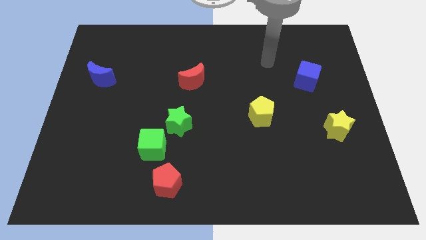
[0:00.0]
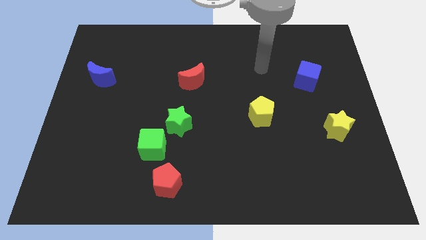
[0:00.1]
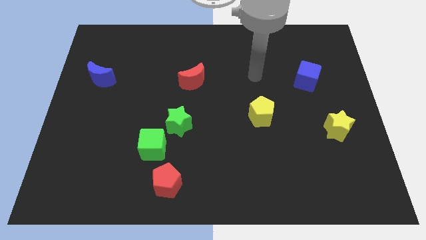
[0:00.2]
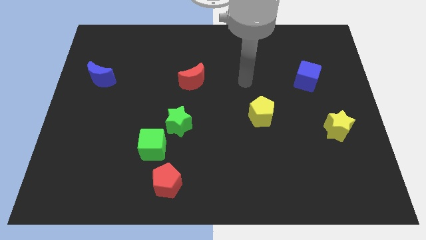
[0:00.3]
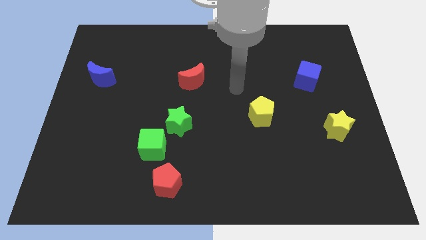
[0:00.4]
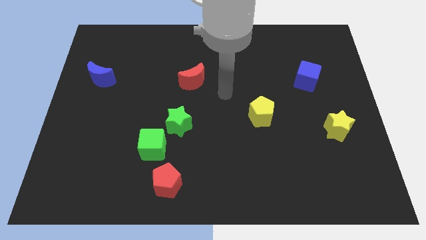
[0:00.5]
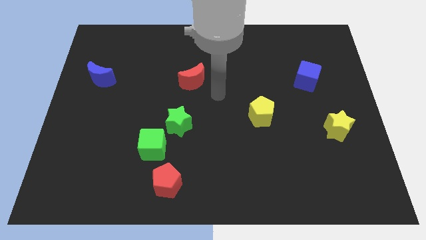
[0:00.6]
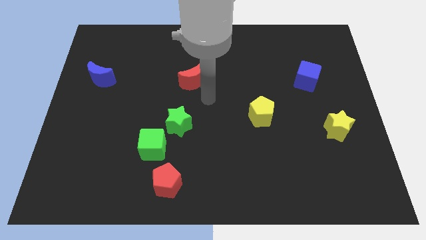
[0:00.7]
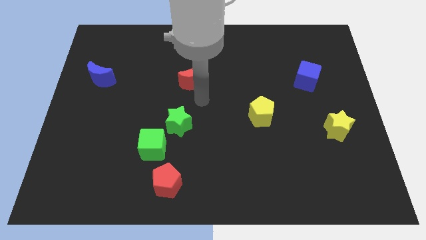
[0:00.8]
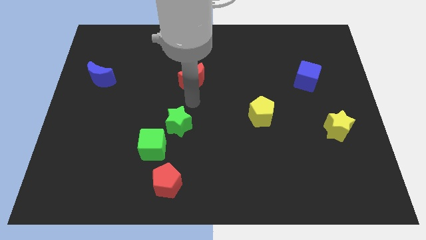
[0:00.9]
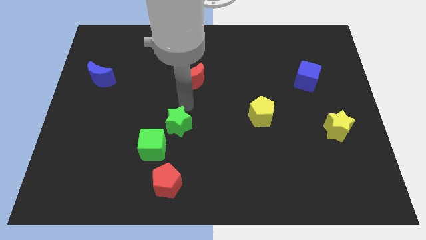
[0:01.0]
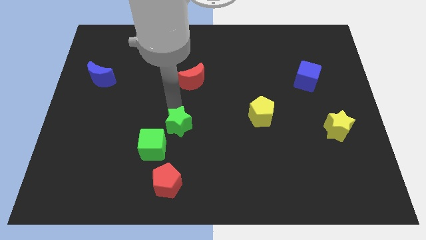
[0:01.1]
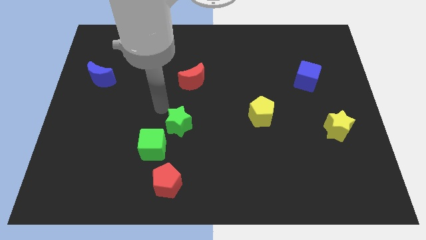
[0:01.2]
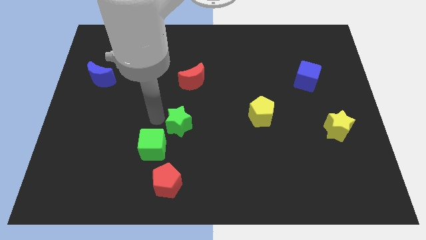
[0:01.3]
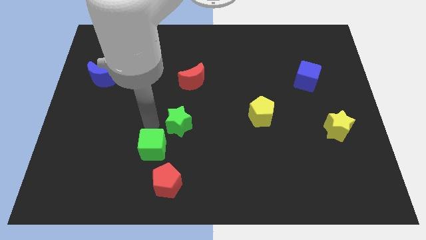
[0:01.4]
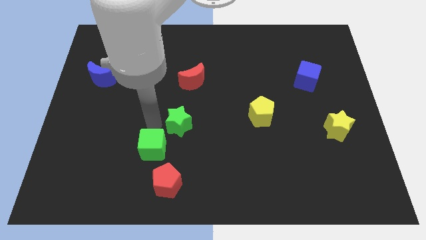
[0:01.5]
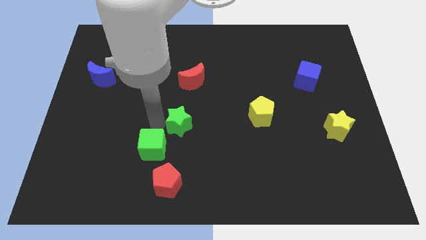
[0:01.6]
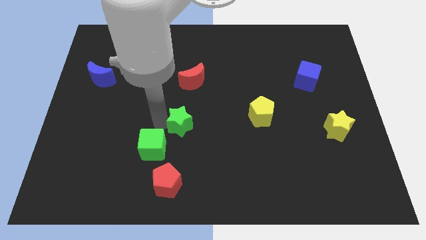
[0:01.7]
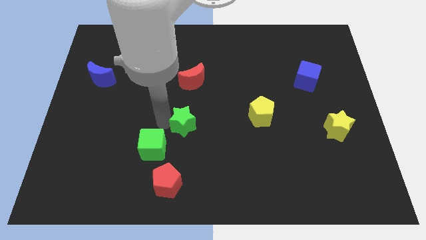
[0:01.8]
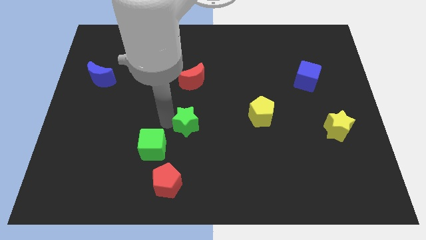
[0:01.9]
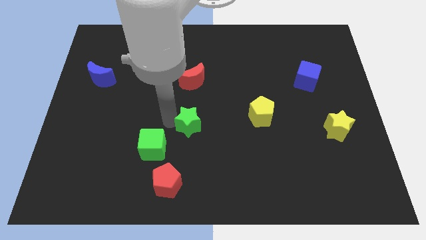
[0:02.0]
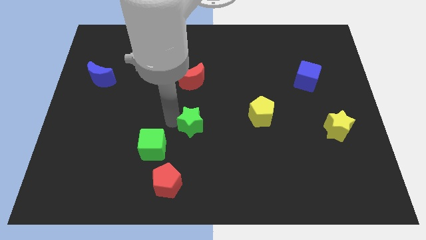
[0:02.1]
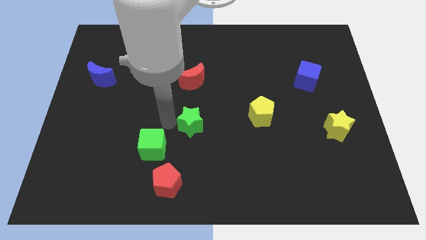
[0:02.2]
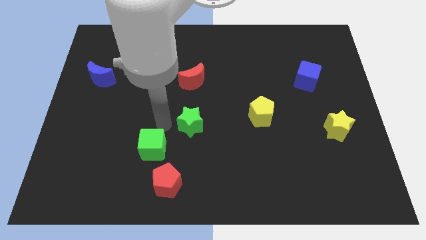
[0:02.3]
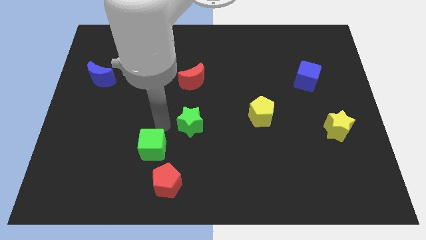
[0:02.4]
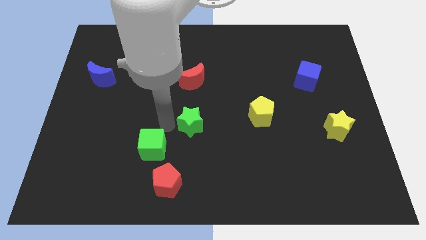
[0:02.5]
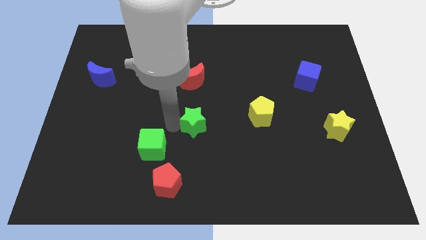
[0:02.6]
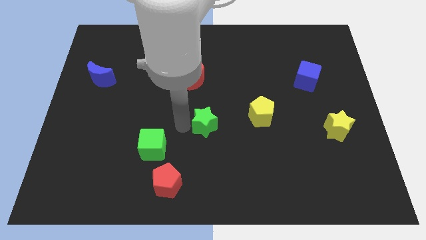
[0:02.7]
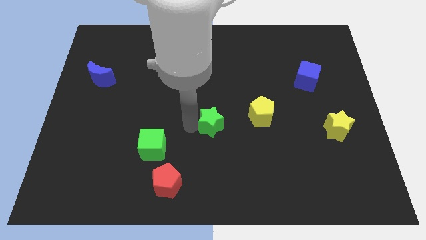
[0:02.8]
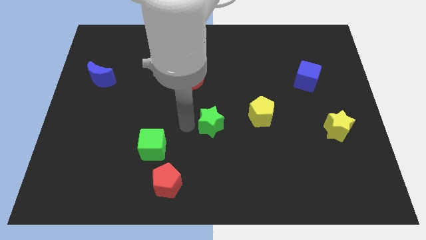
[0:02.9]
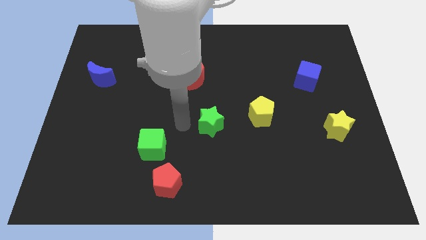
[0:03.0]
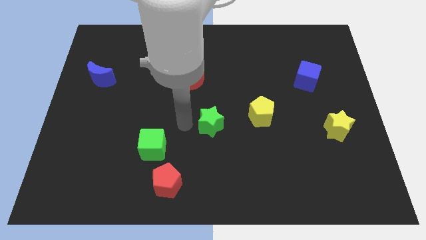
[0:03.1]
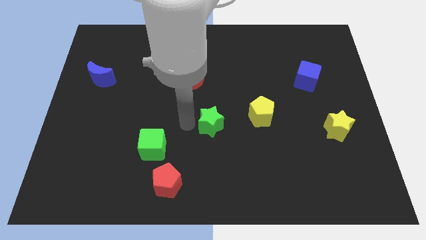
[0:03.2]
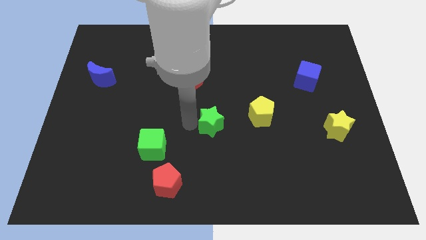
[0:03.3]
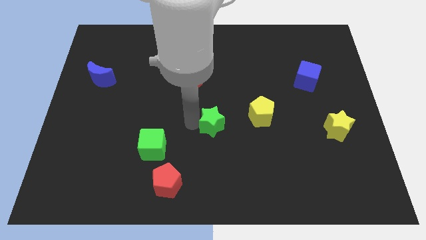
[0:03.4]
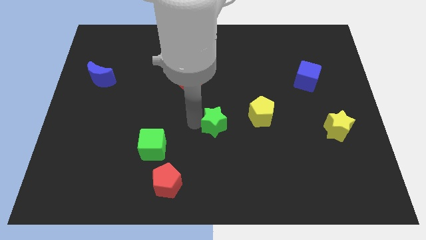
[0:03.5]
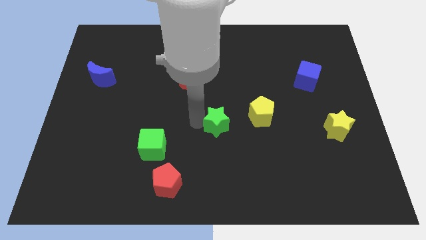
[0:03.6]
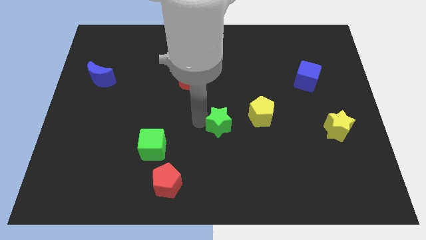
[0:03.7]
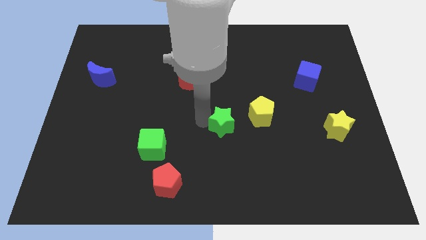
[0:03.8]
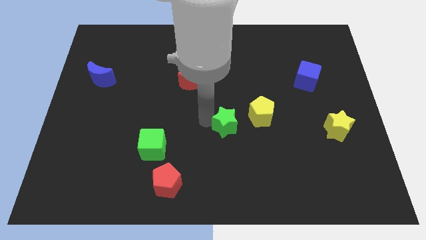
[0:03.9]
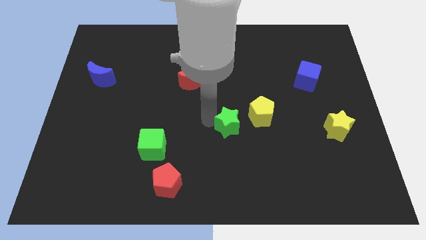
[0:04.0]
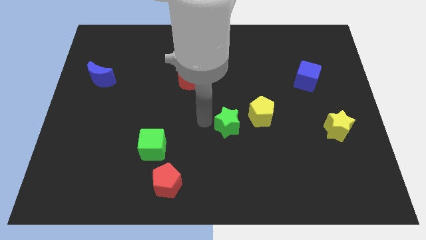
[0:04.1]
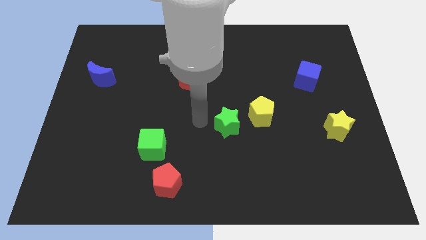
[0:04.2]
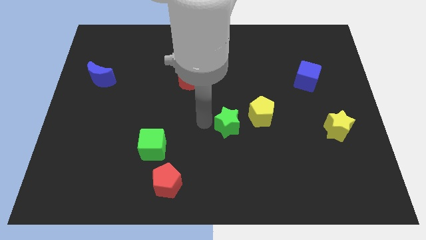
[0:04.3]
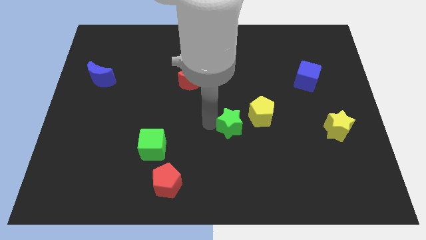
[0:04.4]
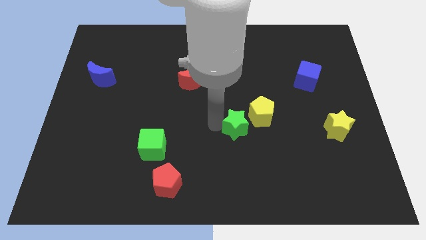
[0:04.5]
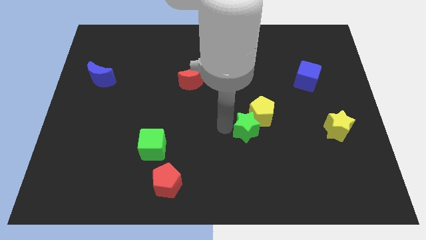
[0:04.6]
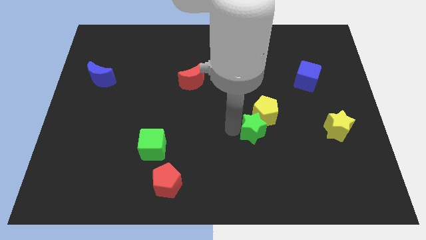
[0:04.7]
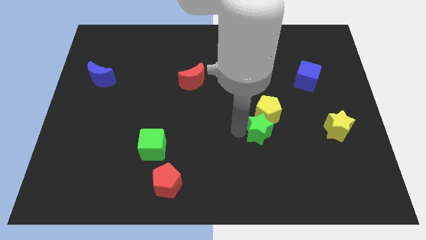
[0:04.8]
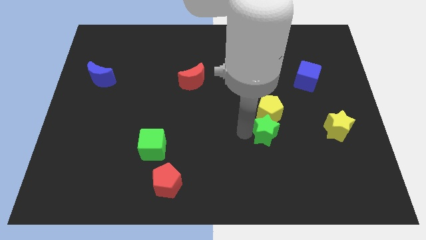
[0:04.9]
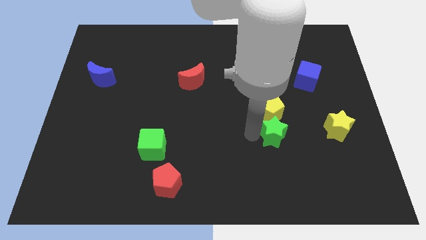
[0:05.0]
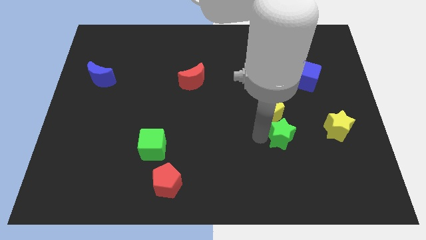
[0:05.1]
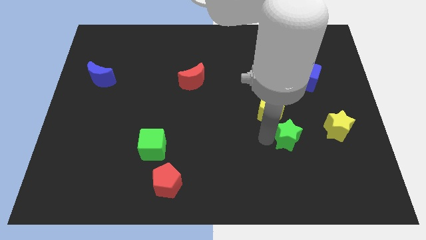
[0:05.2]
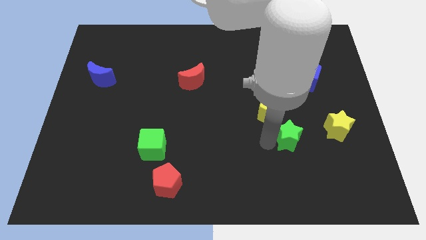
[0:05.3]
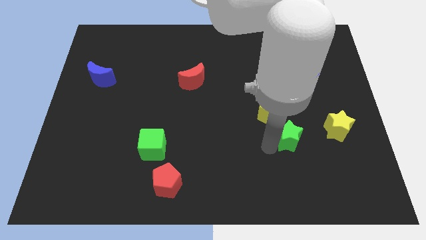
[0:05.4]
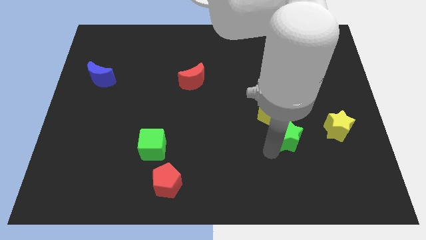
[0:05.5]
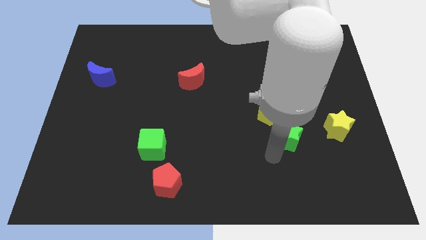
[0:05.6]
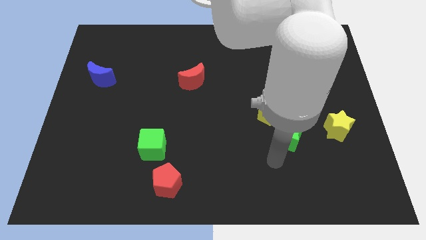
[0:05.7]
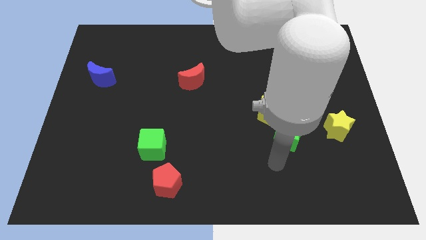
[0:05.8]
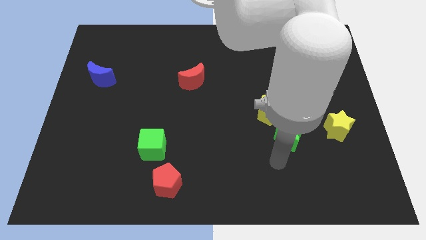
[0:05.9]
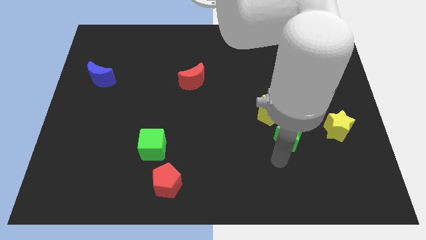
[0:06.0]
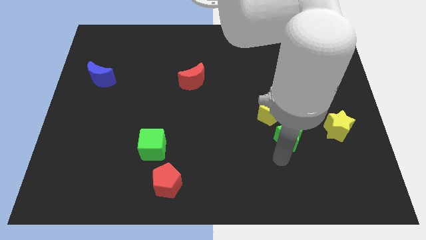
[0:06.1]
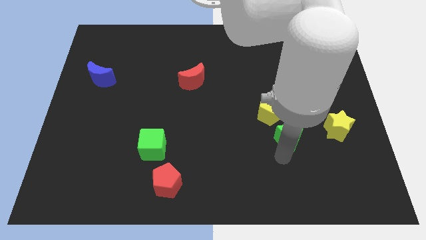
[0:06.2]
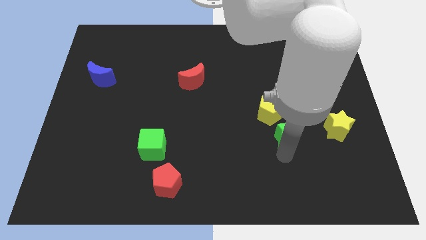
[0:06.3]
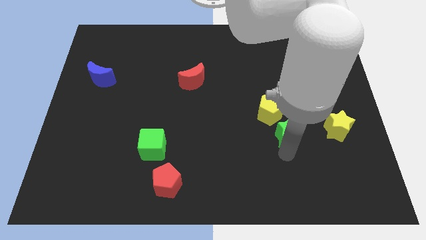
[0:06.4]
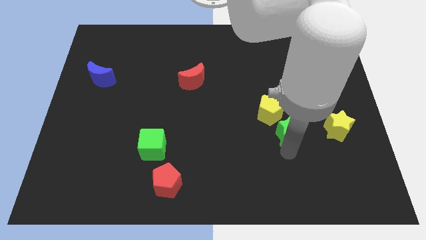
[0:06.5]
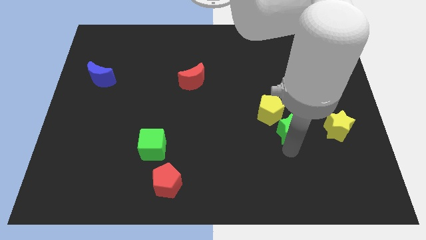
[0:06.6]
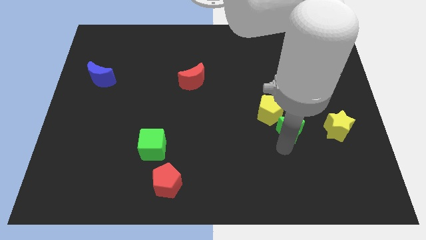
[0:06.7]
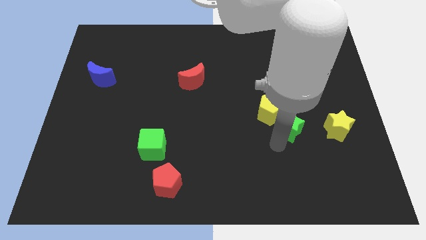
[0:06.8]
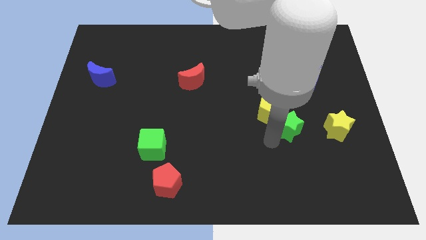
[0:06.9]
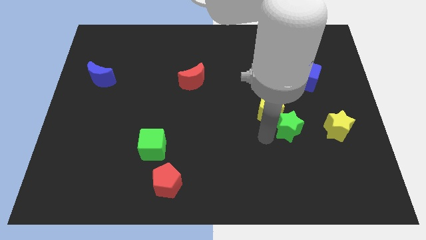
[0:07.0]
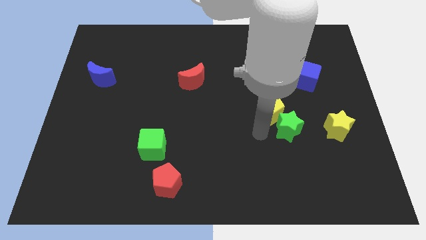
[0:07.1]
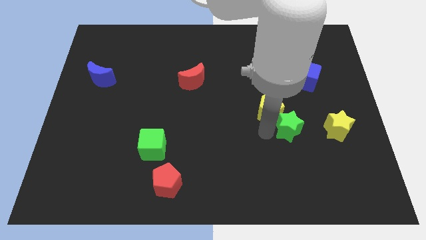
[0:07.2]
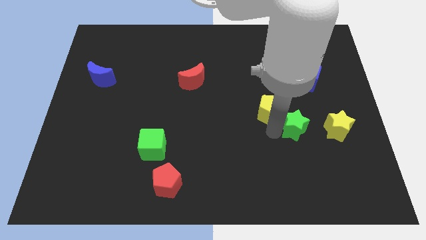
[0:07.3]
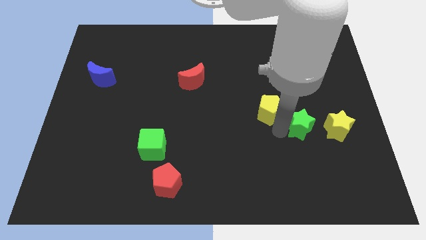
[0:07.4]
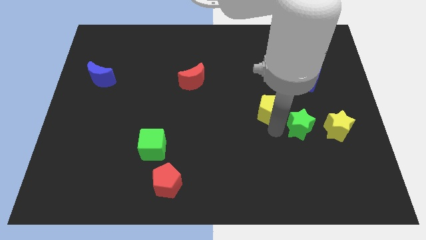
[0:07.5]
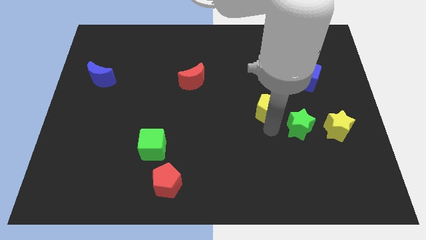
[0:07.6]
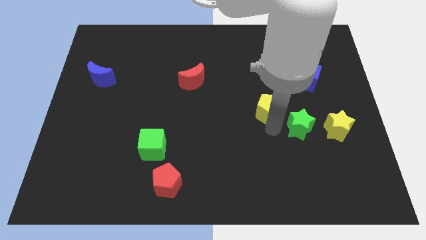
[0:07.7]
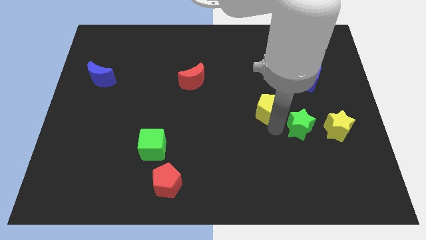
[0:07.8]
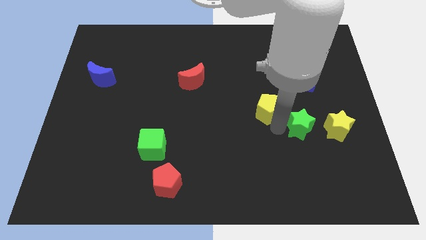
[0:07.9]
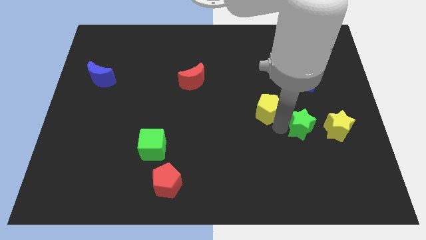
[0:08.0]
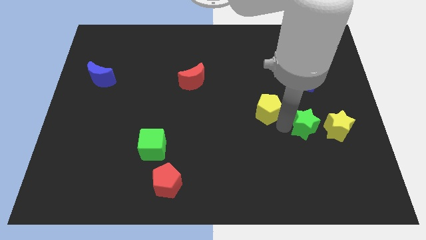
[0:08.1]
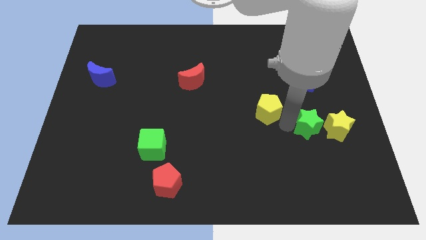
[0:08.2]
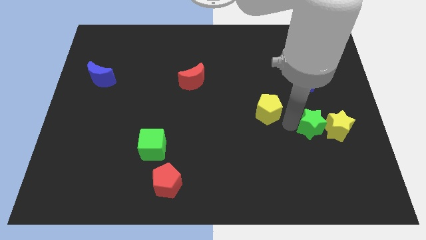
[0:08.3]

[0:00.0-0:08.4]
move the green star next to the yellow star
